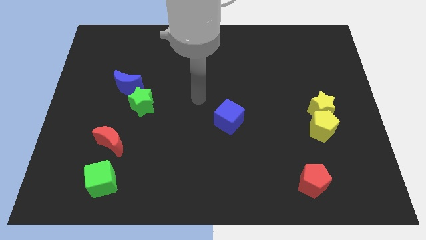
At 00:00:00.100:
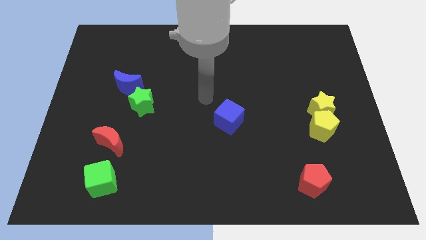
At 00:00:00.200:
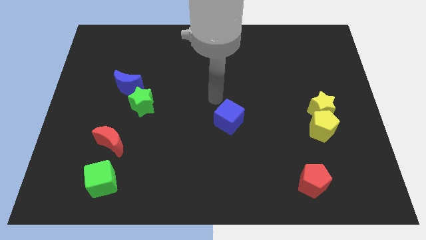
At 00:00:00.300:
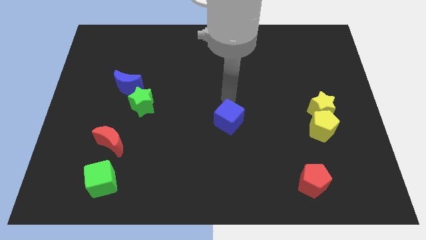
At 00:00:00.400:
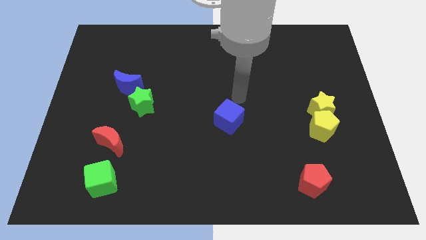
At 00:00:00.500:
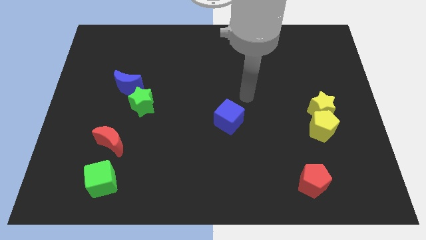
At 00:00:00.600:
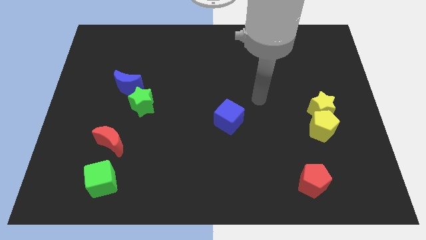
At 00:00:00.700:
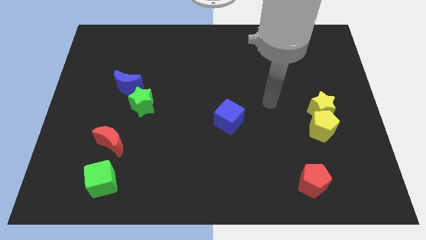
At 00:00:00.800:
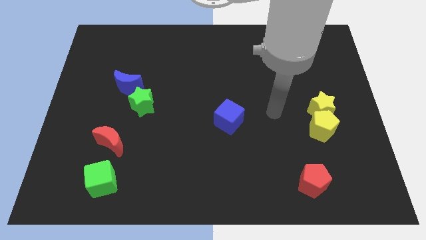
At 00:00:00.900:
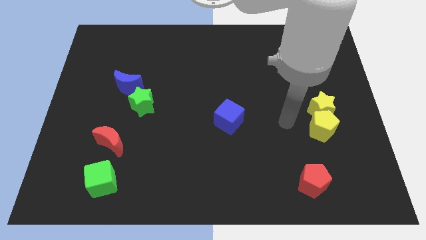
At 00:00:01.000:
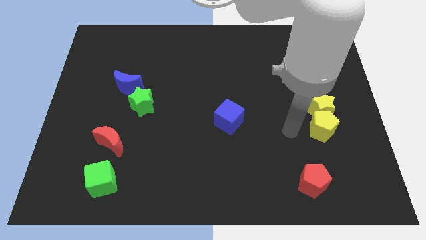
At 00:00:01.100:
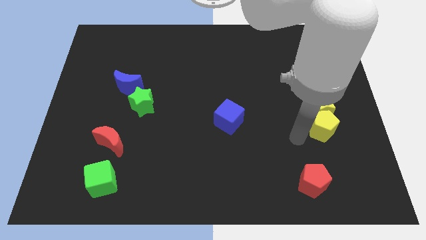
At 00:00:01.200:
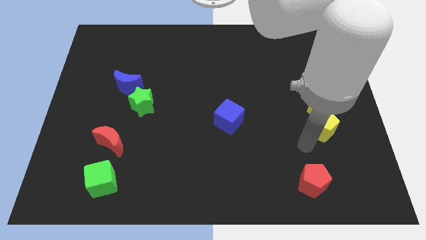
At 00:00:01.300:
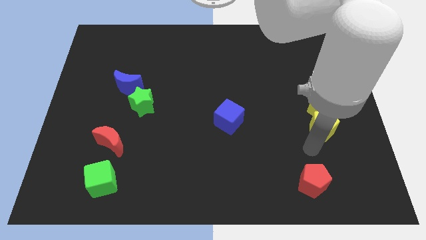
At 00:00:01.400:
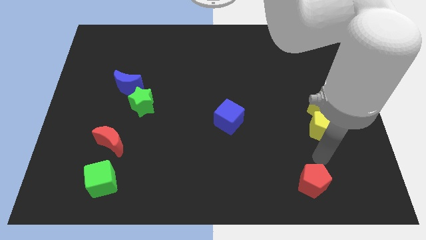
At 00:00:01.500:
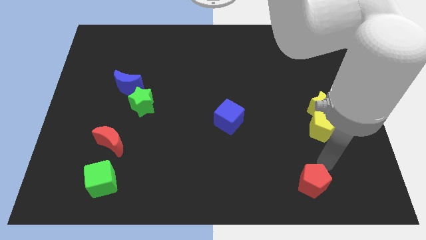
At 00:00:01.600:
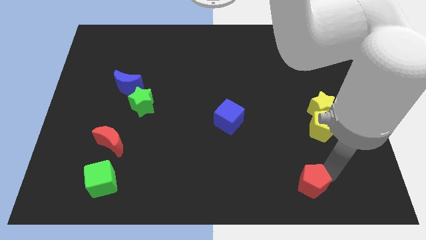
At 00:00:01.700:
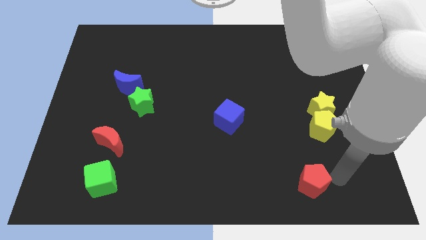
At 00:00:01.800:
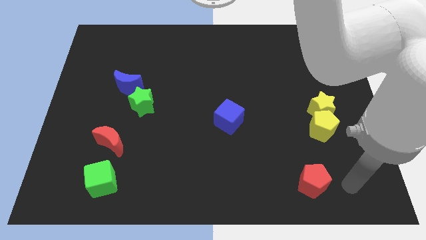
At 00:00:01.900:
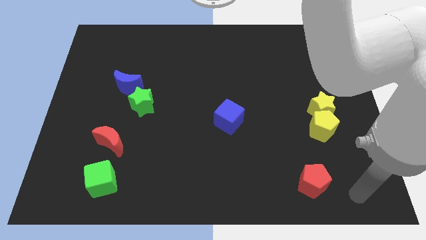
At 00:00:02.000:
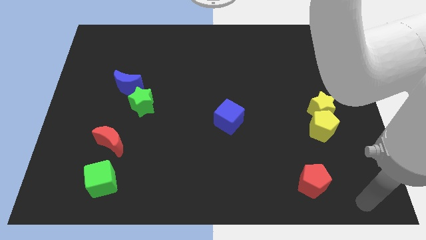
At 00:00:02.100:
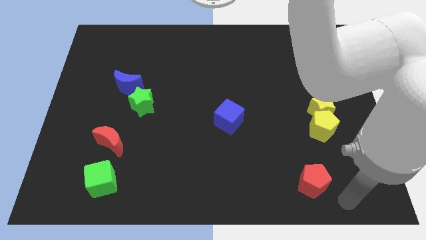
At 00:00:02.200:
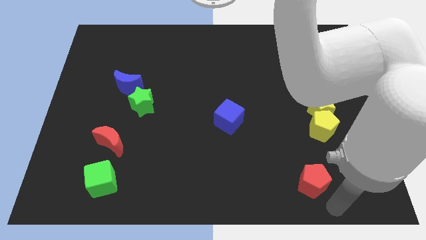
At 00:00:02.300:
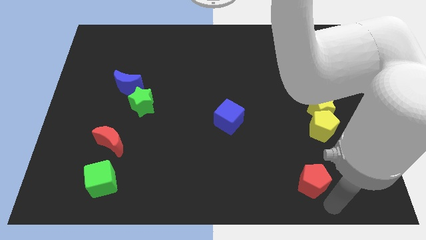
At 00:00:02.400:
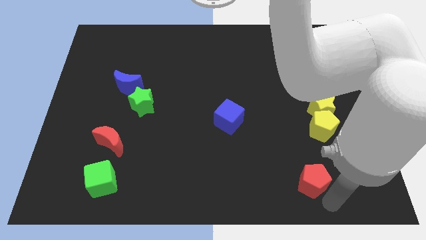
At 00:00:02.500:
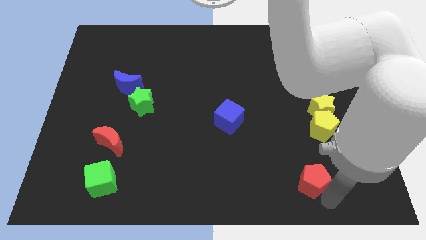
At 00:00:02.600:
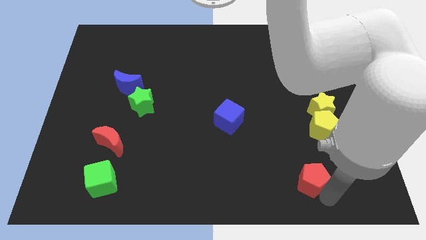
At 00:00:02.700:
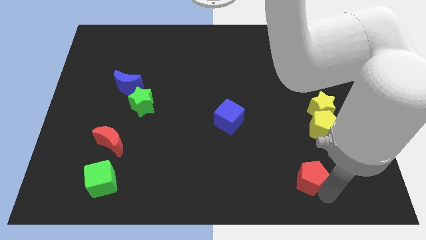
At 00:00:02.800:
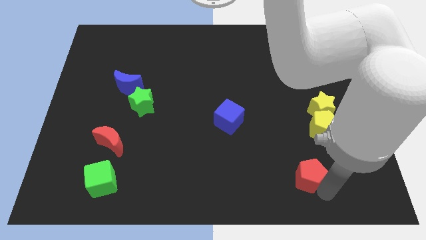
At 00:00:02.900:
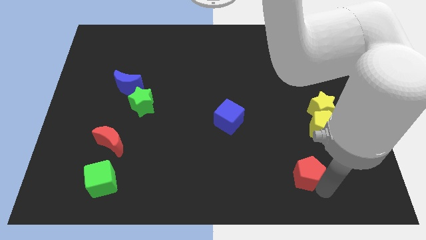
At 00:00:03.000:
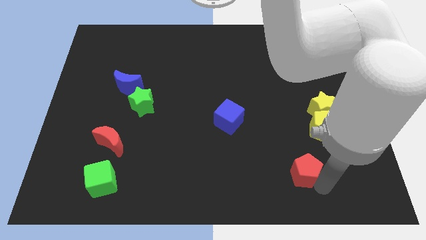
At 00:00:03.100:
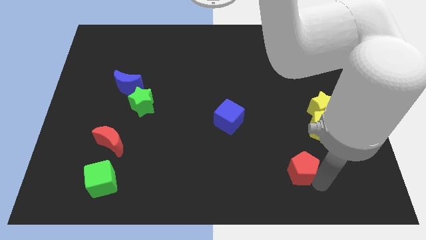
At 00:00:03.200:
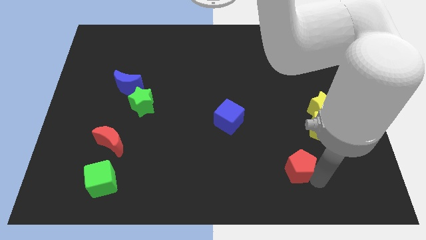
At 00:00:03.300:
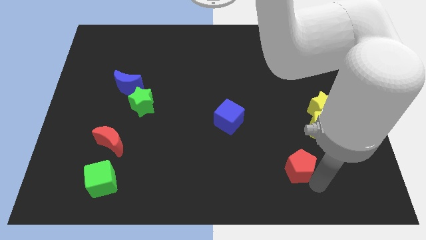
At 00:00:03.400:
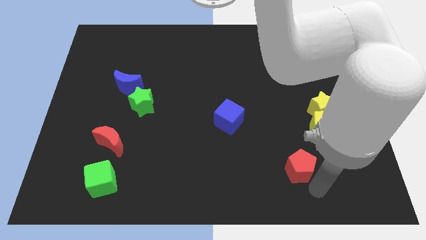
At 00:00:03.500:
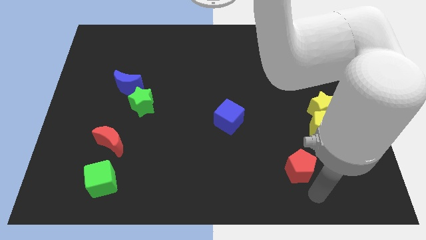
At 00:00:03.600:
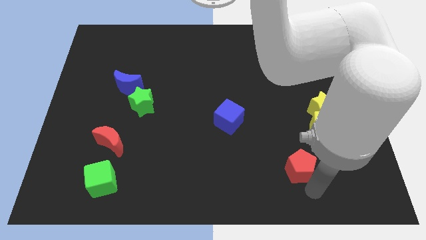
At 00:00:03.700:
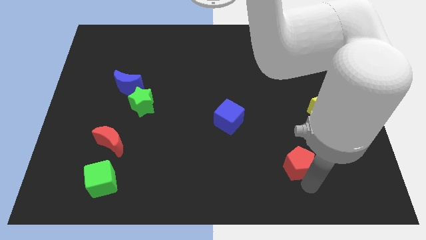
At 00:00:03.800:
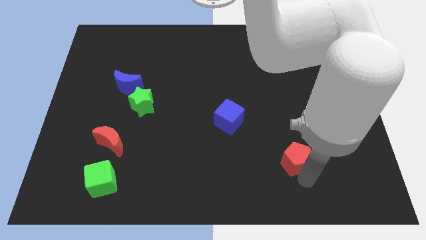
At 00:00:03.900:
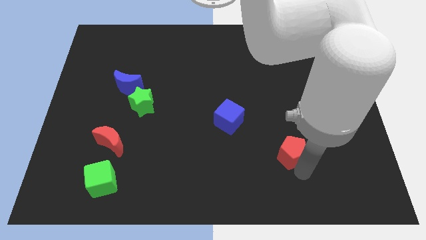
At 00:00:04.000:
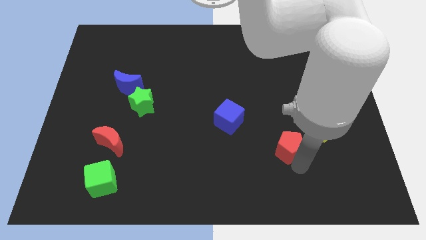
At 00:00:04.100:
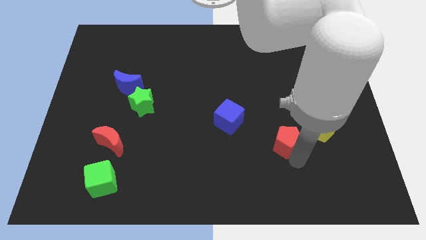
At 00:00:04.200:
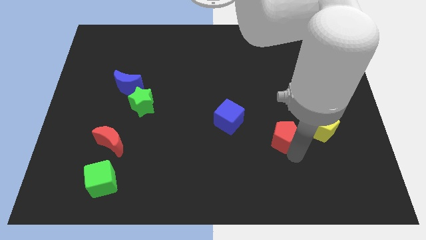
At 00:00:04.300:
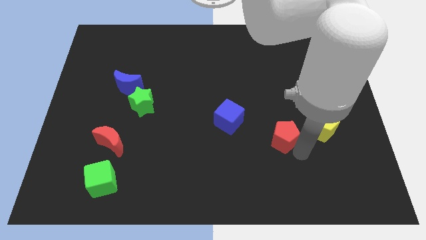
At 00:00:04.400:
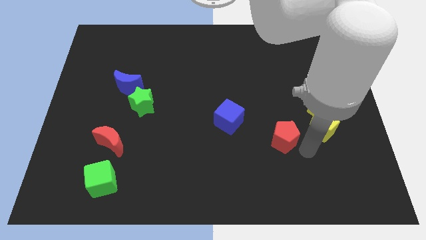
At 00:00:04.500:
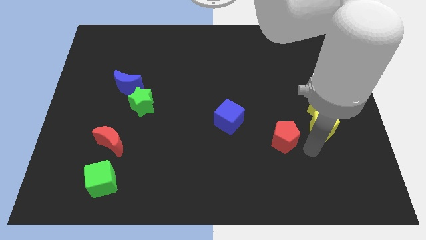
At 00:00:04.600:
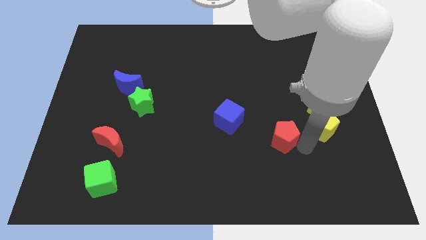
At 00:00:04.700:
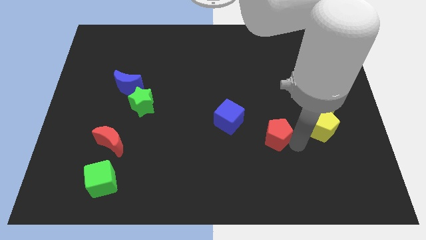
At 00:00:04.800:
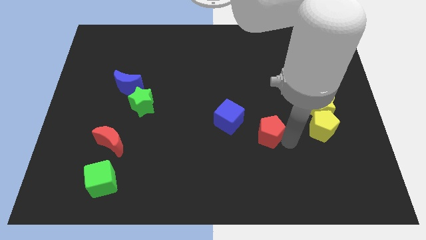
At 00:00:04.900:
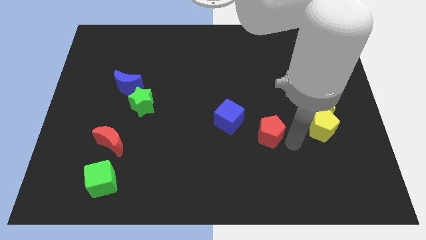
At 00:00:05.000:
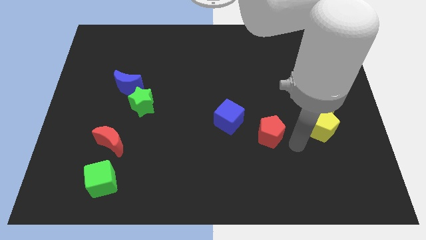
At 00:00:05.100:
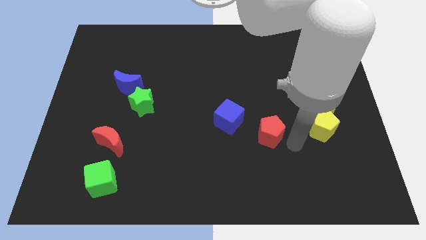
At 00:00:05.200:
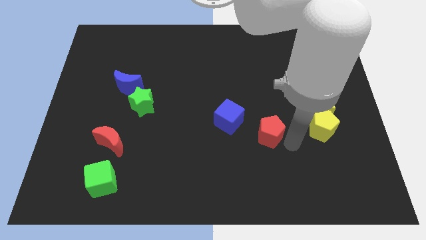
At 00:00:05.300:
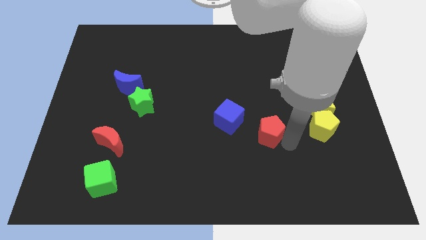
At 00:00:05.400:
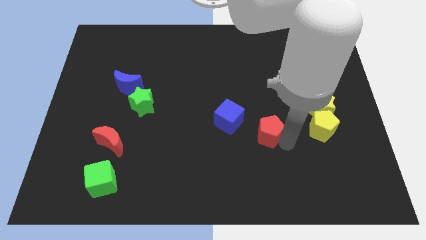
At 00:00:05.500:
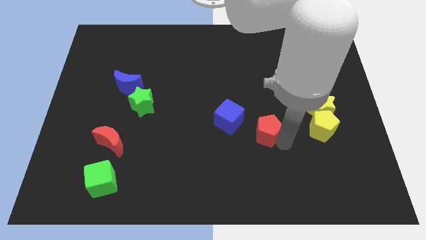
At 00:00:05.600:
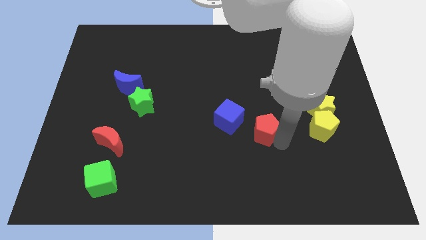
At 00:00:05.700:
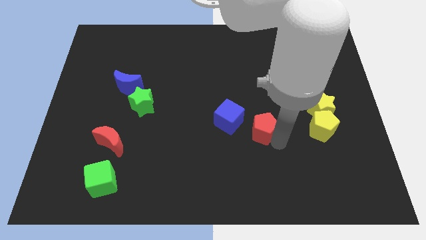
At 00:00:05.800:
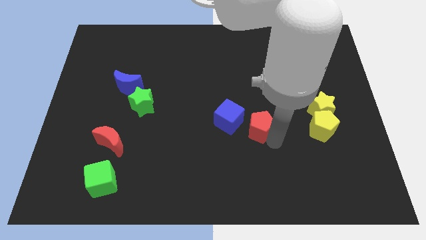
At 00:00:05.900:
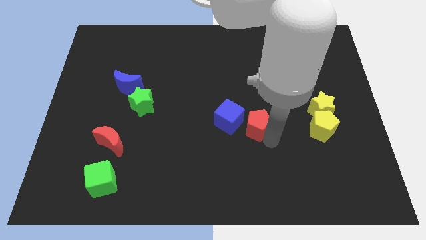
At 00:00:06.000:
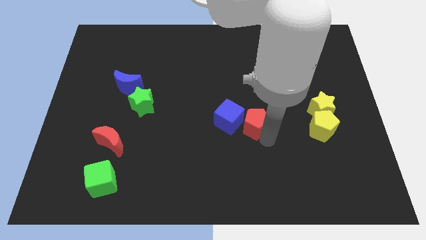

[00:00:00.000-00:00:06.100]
push the red pentagon to the blue cube

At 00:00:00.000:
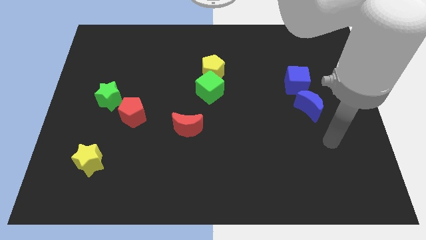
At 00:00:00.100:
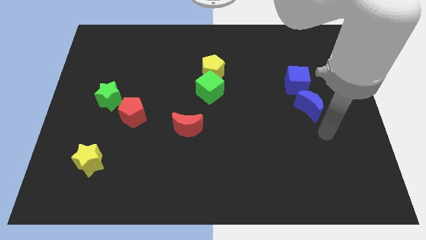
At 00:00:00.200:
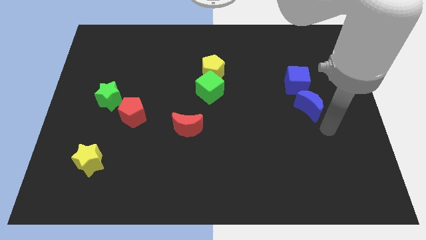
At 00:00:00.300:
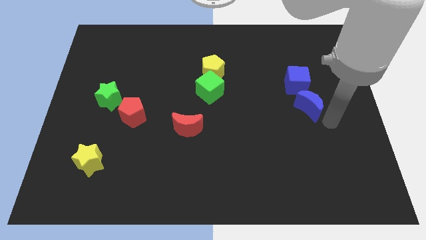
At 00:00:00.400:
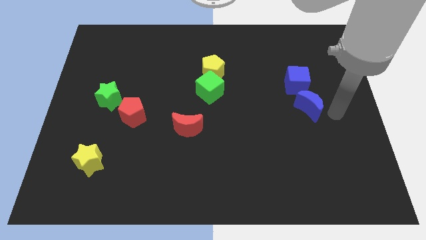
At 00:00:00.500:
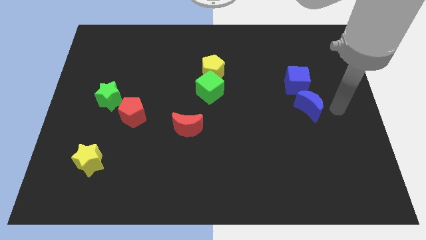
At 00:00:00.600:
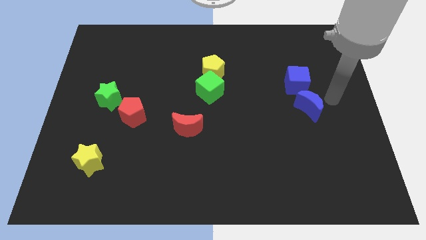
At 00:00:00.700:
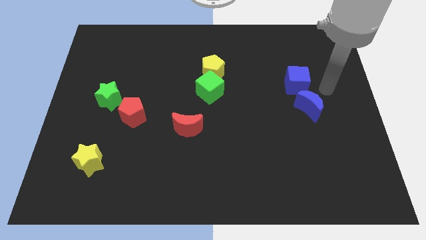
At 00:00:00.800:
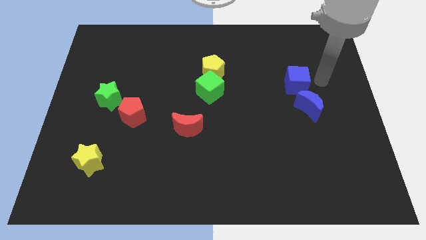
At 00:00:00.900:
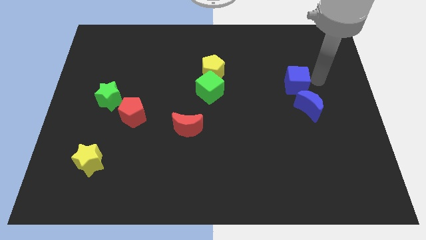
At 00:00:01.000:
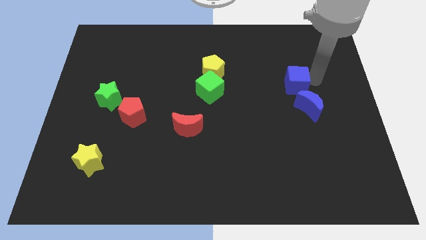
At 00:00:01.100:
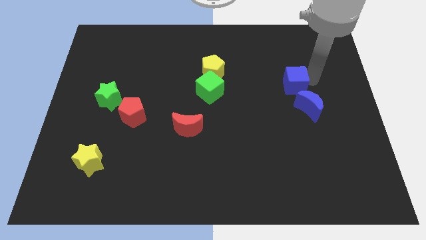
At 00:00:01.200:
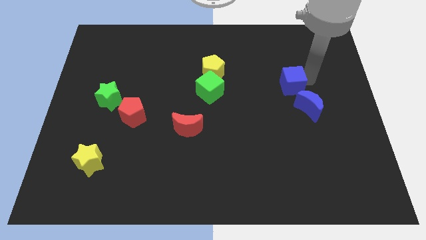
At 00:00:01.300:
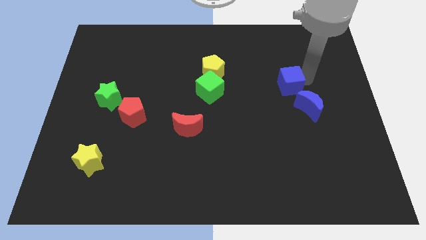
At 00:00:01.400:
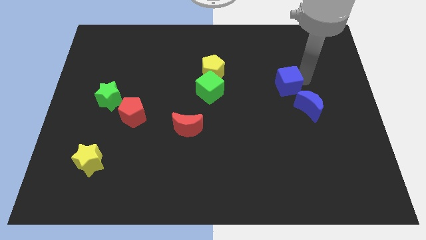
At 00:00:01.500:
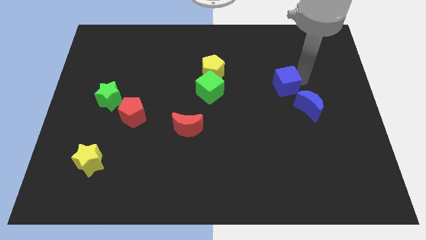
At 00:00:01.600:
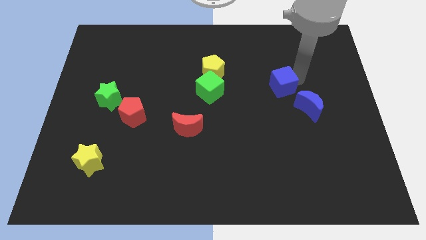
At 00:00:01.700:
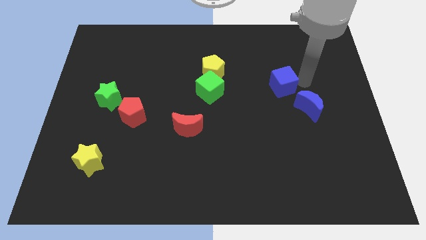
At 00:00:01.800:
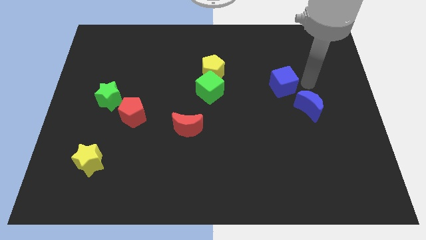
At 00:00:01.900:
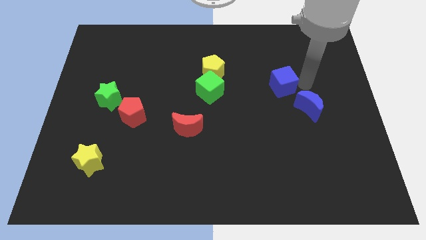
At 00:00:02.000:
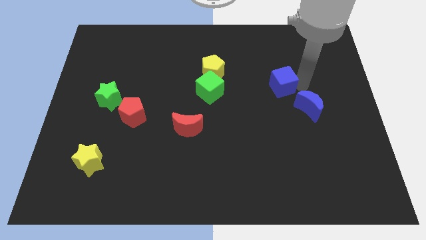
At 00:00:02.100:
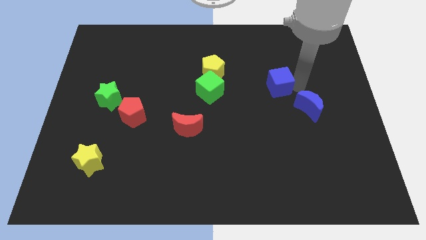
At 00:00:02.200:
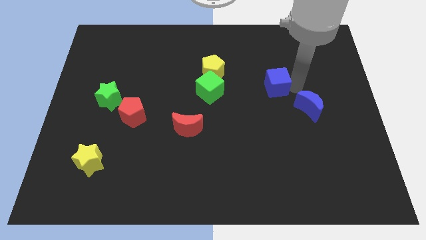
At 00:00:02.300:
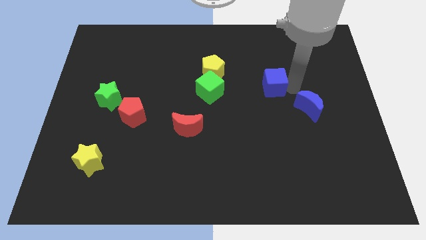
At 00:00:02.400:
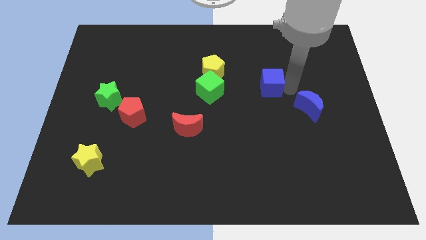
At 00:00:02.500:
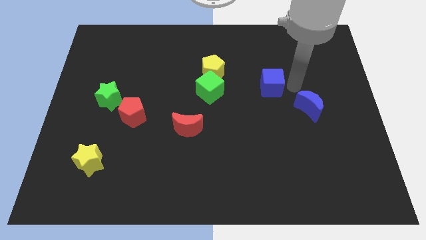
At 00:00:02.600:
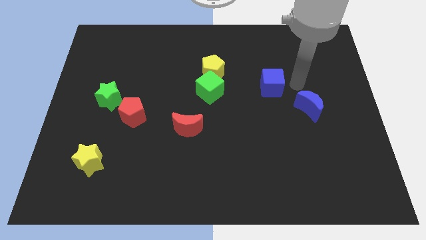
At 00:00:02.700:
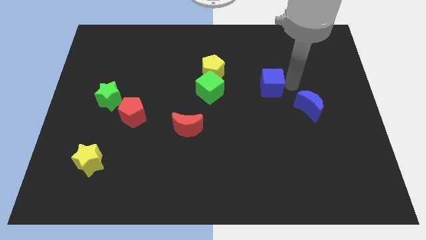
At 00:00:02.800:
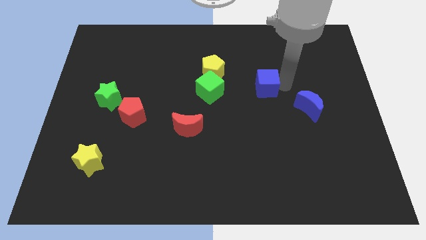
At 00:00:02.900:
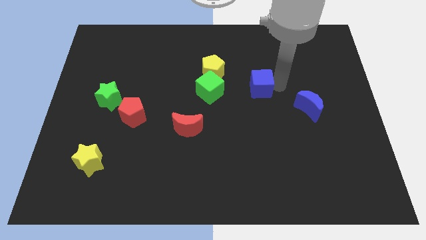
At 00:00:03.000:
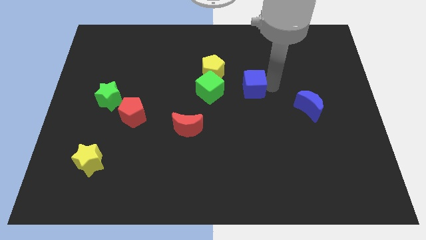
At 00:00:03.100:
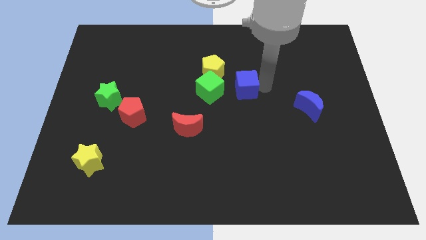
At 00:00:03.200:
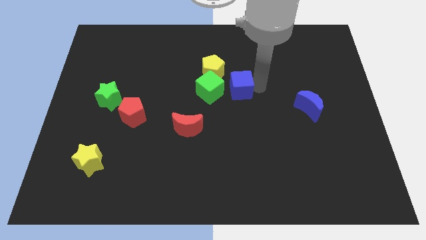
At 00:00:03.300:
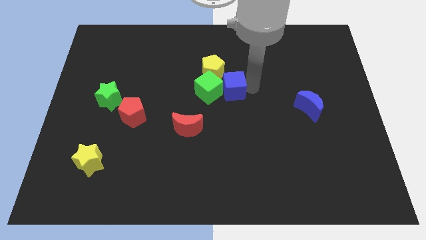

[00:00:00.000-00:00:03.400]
put the blue cube towards the green cube
